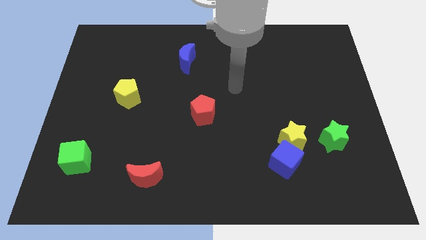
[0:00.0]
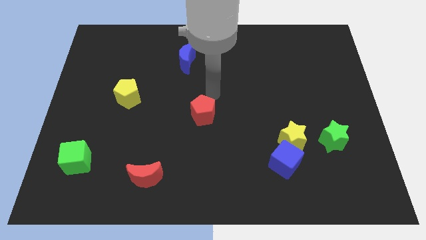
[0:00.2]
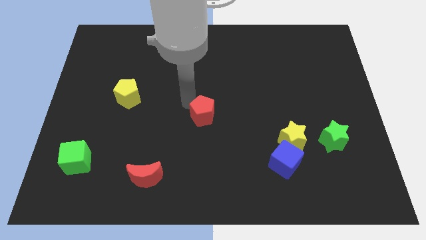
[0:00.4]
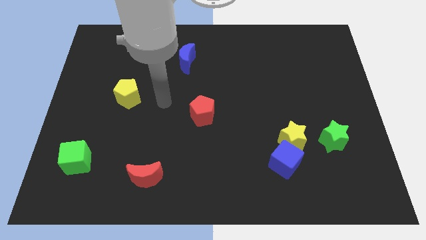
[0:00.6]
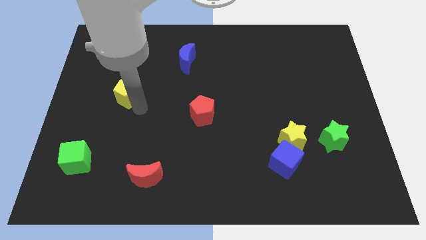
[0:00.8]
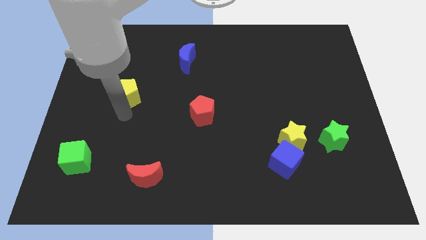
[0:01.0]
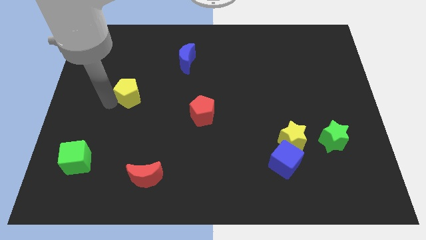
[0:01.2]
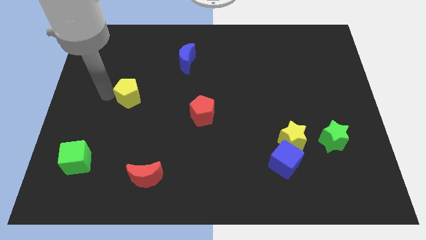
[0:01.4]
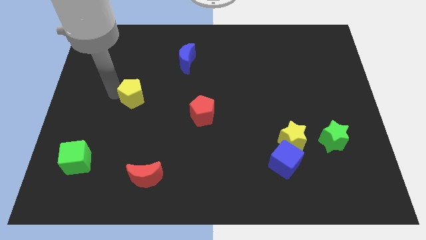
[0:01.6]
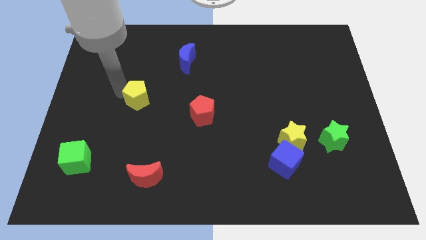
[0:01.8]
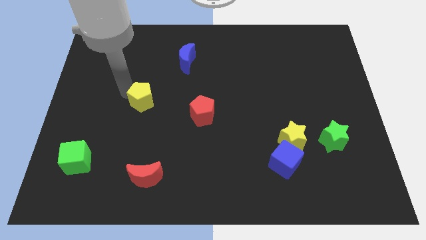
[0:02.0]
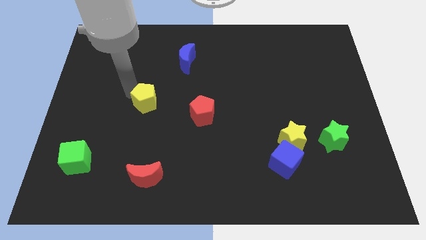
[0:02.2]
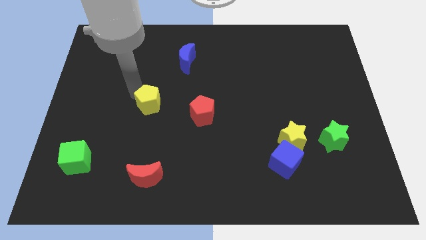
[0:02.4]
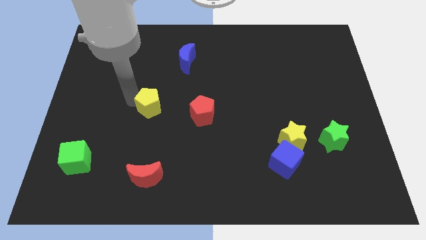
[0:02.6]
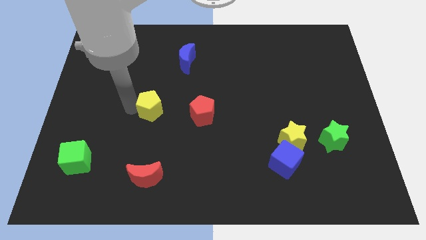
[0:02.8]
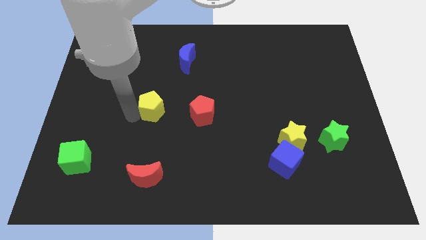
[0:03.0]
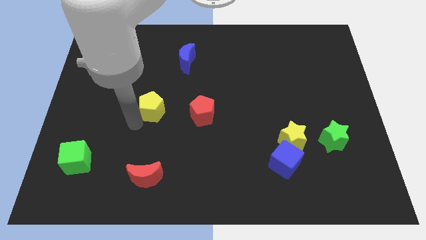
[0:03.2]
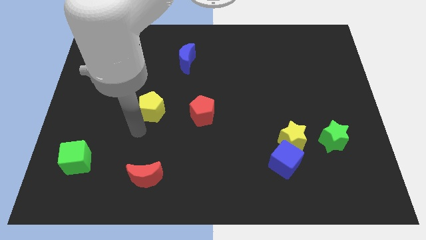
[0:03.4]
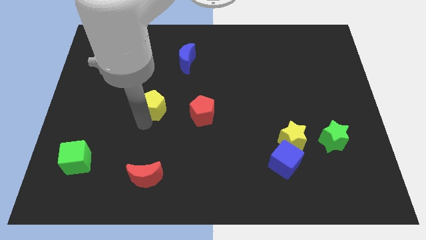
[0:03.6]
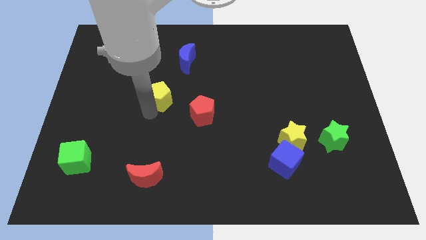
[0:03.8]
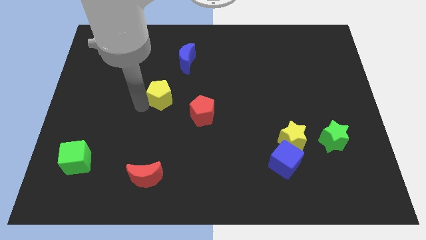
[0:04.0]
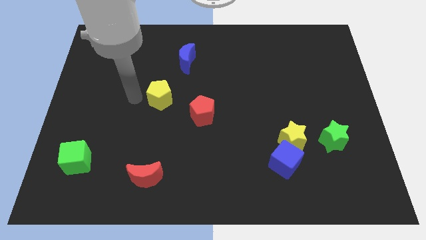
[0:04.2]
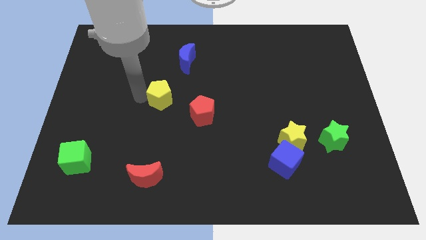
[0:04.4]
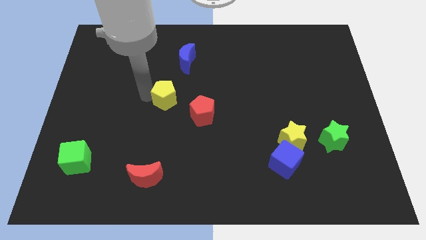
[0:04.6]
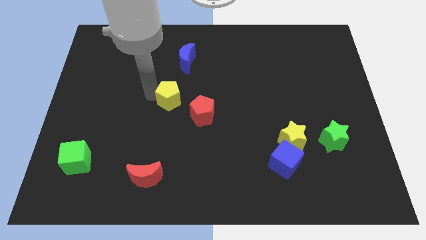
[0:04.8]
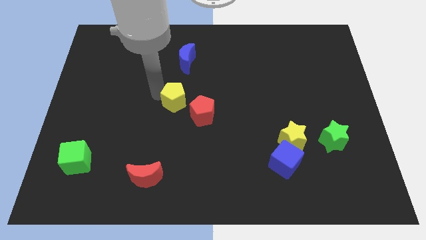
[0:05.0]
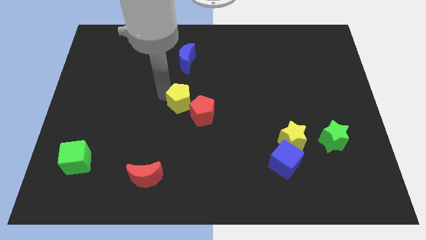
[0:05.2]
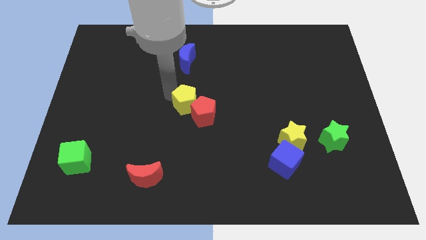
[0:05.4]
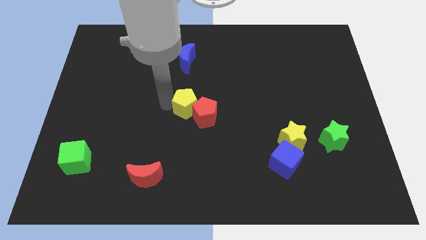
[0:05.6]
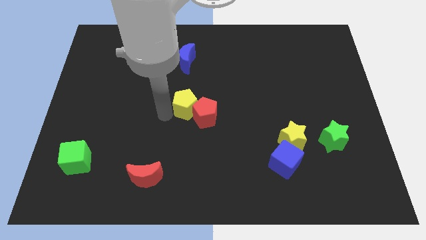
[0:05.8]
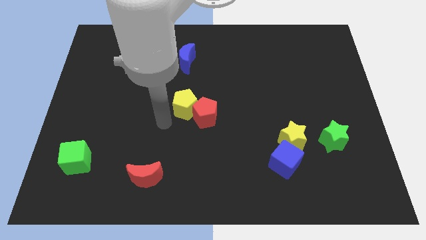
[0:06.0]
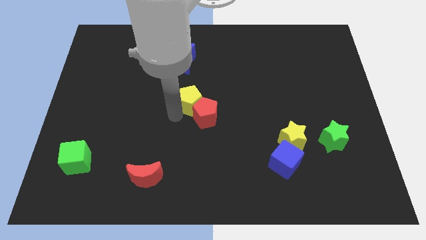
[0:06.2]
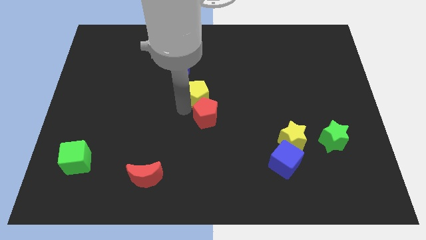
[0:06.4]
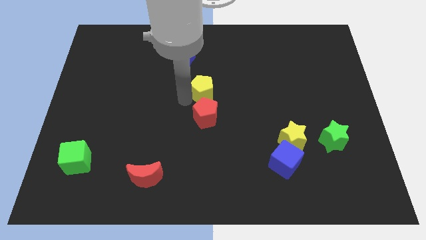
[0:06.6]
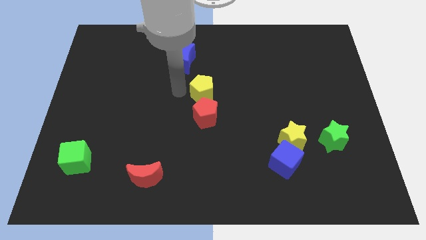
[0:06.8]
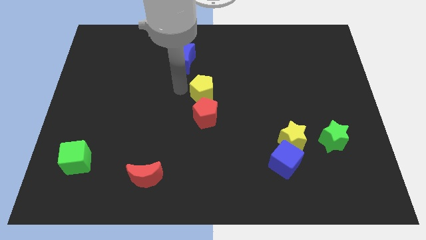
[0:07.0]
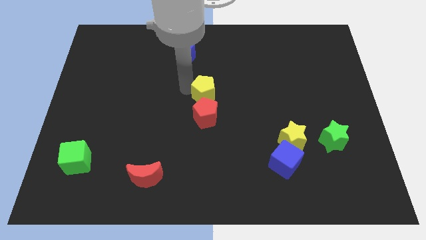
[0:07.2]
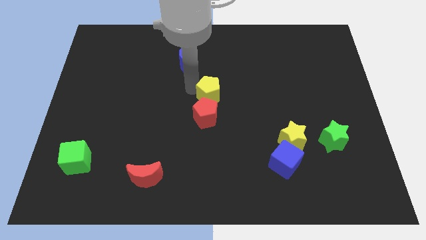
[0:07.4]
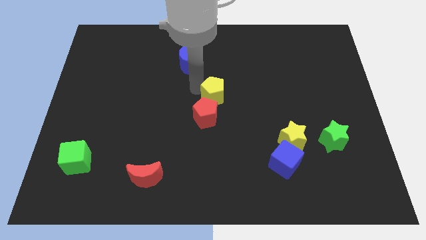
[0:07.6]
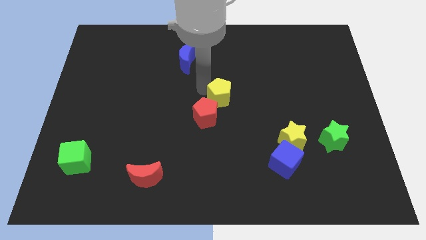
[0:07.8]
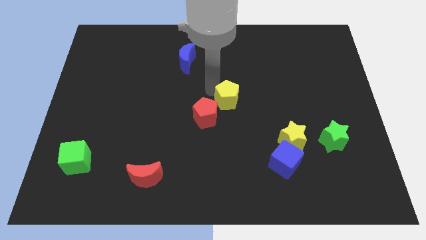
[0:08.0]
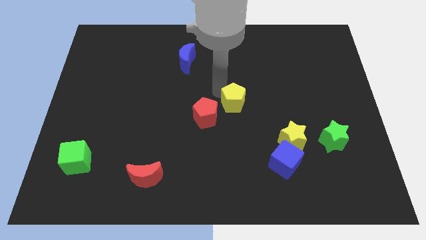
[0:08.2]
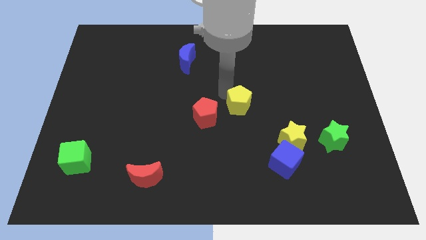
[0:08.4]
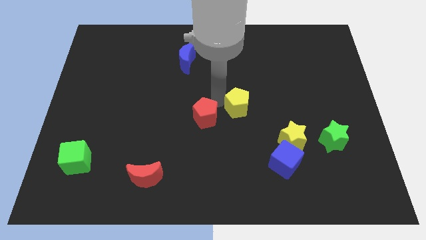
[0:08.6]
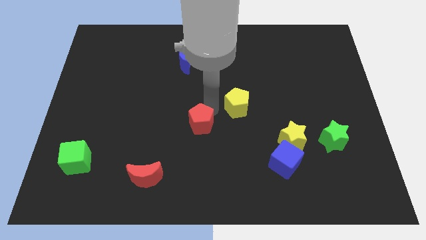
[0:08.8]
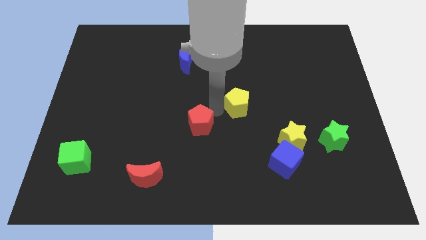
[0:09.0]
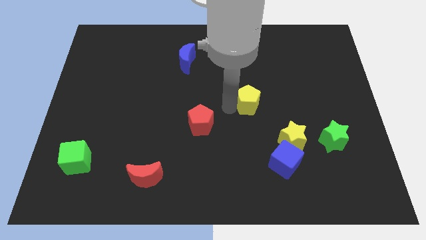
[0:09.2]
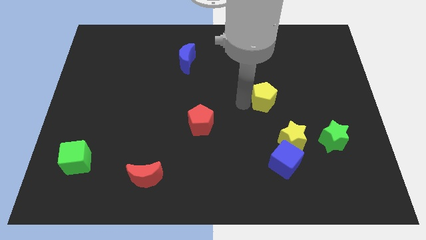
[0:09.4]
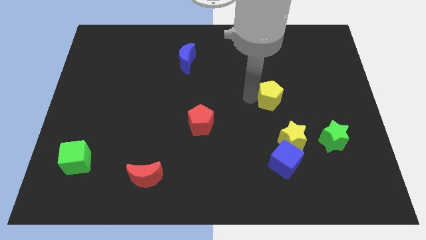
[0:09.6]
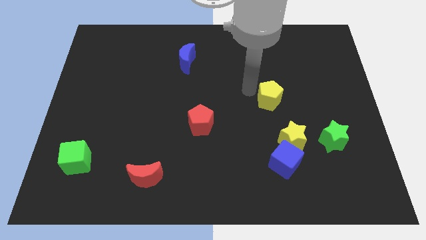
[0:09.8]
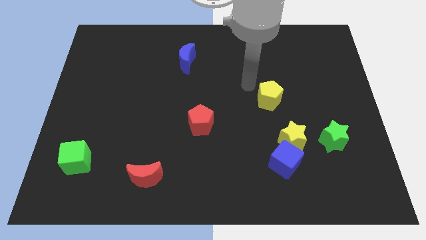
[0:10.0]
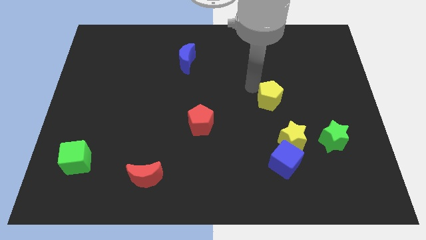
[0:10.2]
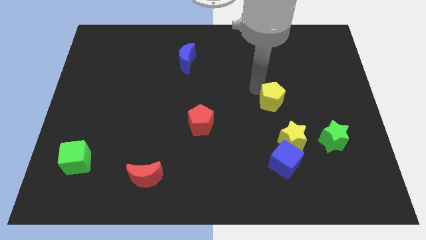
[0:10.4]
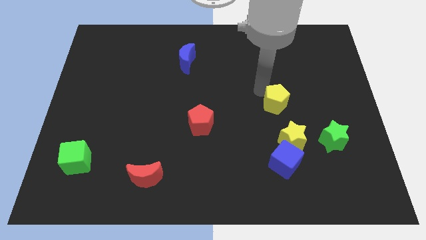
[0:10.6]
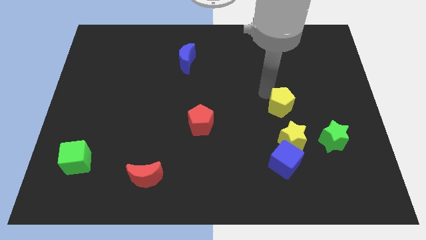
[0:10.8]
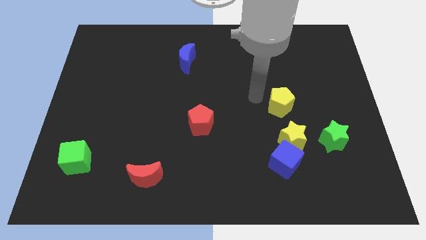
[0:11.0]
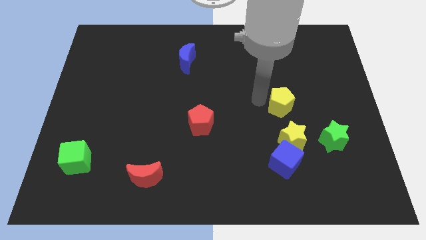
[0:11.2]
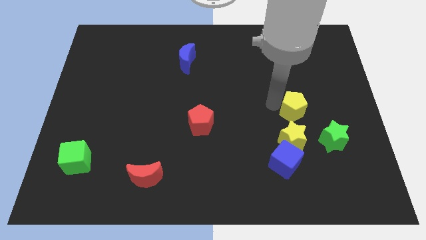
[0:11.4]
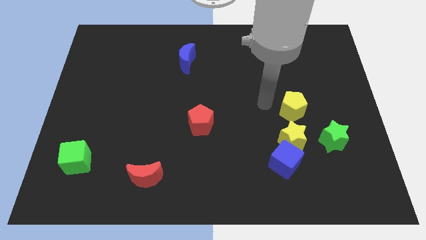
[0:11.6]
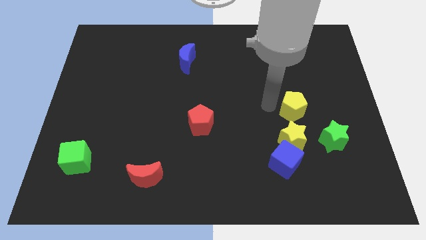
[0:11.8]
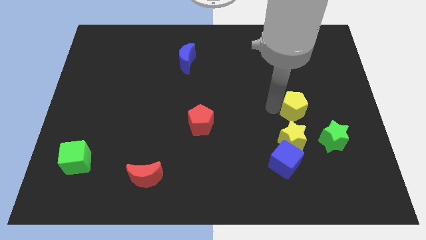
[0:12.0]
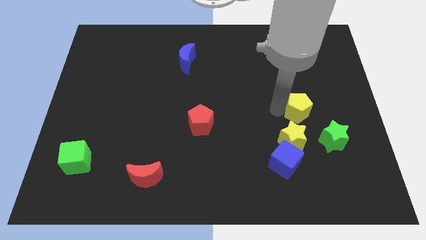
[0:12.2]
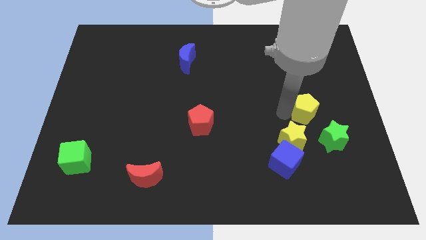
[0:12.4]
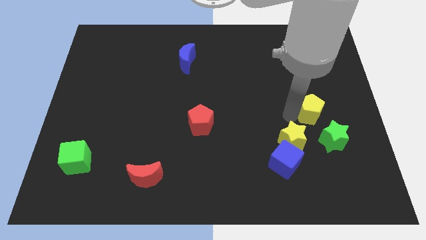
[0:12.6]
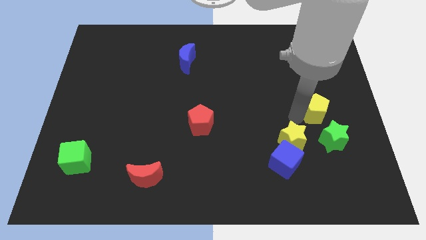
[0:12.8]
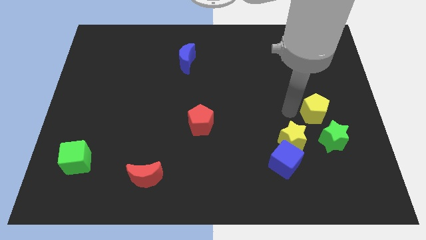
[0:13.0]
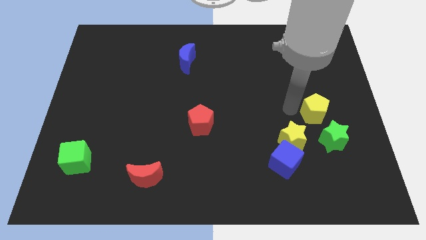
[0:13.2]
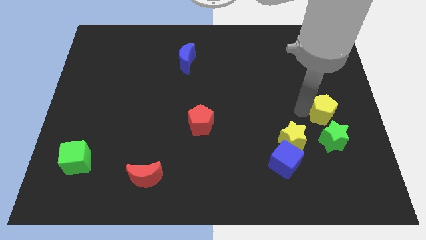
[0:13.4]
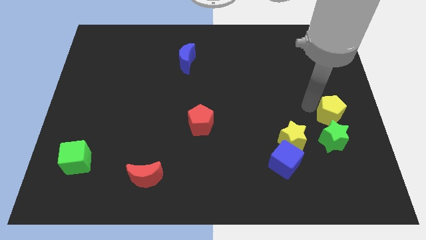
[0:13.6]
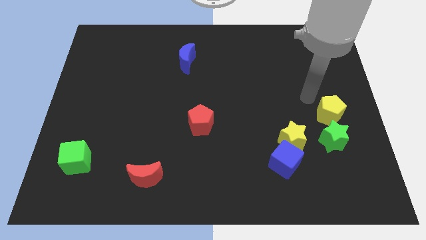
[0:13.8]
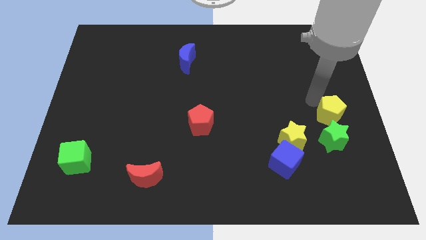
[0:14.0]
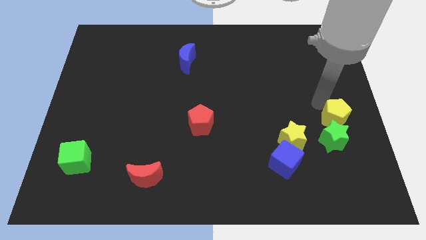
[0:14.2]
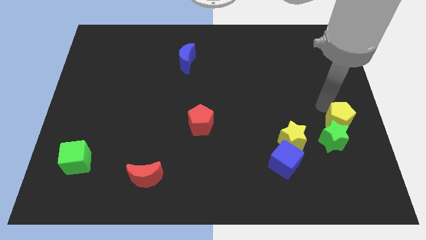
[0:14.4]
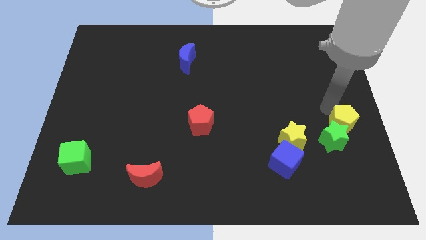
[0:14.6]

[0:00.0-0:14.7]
push the yellow pentagon just right of the yellow star
